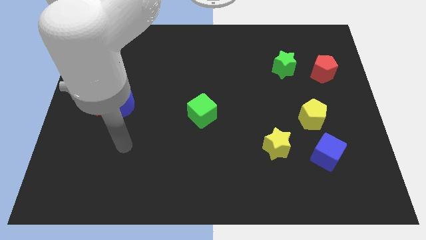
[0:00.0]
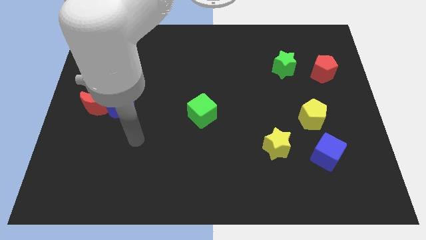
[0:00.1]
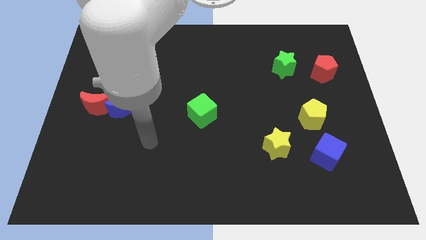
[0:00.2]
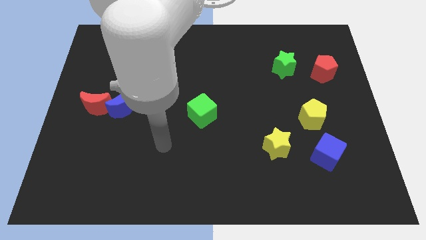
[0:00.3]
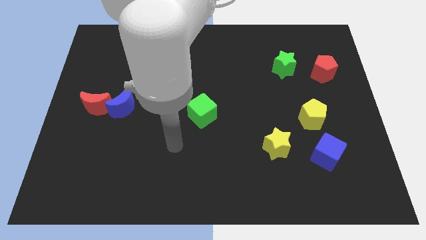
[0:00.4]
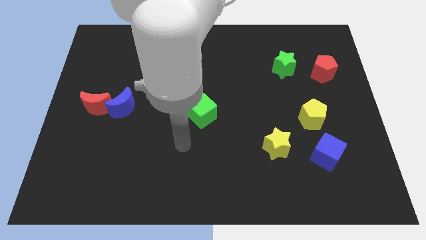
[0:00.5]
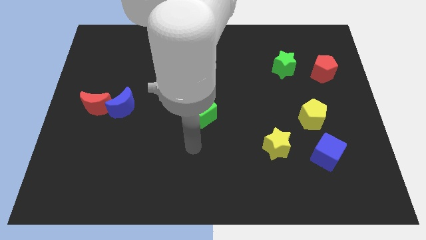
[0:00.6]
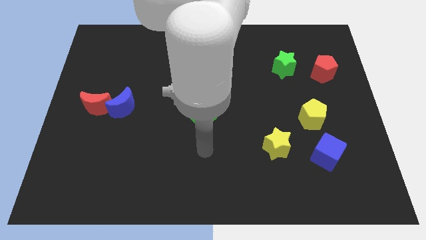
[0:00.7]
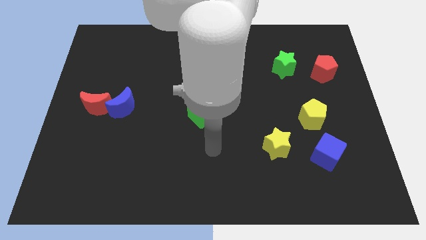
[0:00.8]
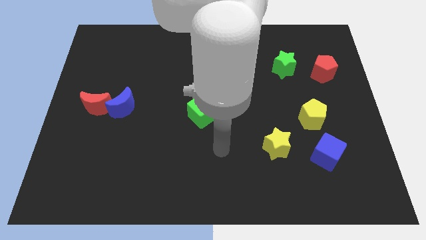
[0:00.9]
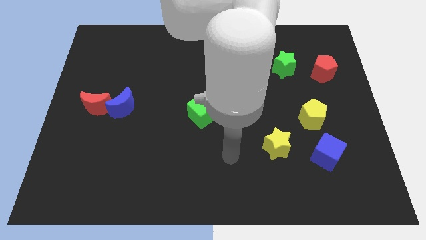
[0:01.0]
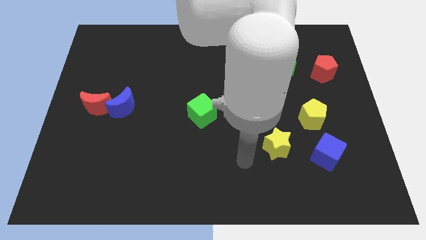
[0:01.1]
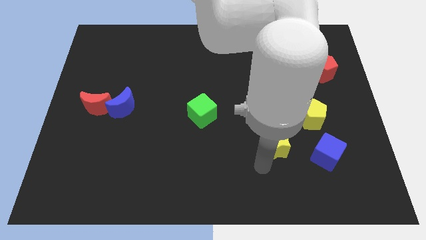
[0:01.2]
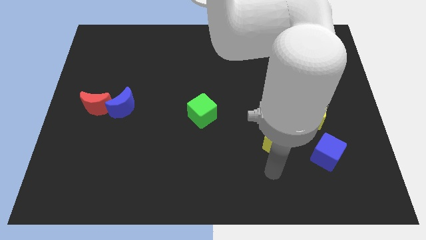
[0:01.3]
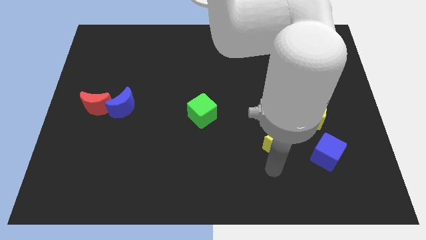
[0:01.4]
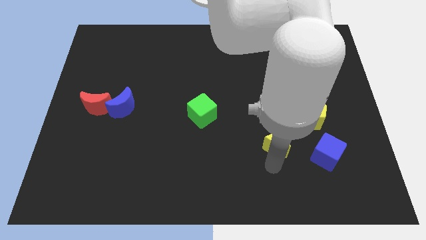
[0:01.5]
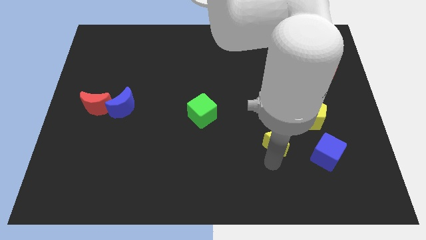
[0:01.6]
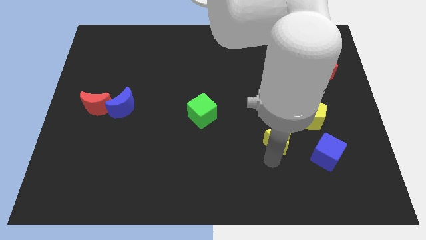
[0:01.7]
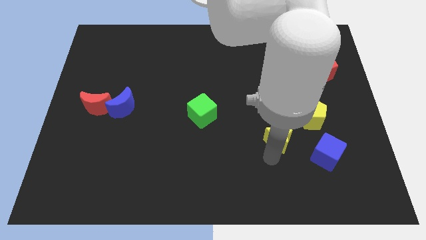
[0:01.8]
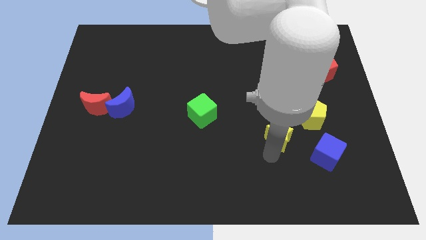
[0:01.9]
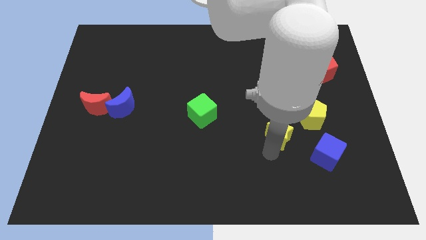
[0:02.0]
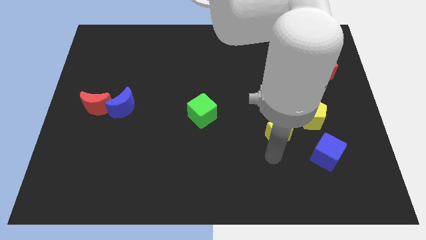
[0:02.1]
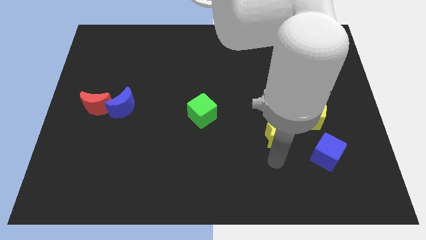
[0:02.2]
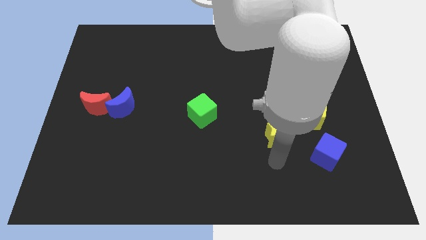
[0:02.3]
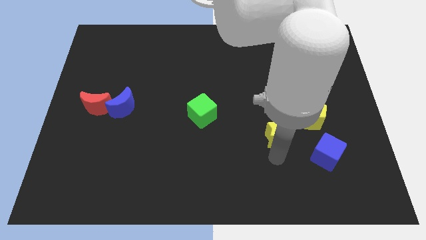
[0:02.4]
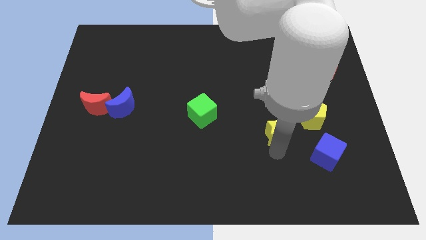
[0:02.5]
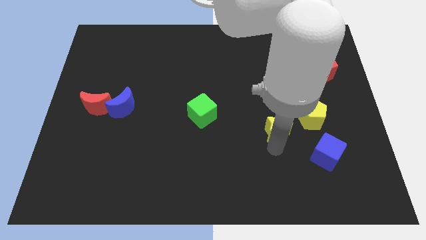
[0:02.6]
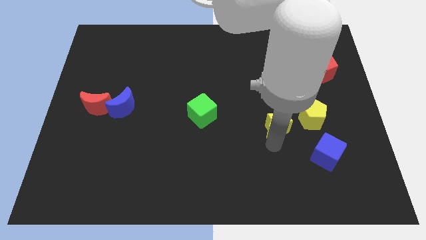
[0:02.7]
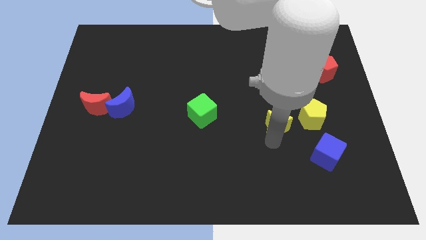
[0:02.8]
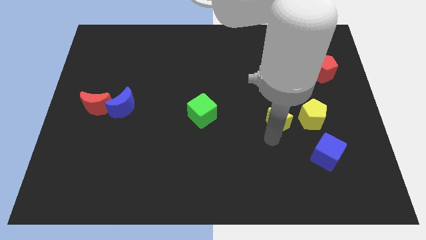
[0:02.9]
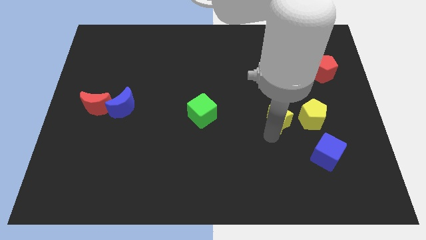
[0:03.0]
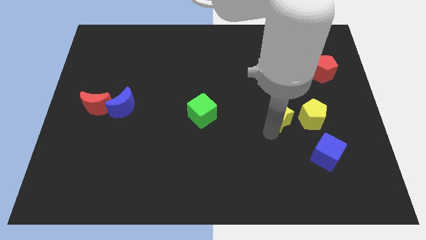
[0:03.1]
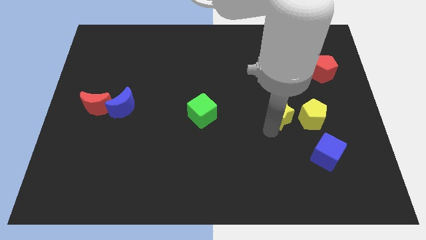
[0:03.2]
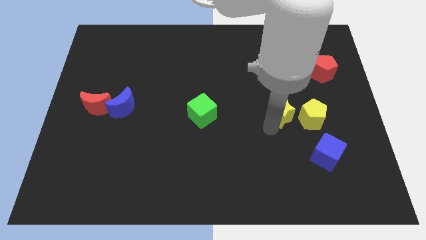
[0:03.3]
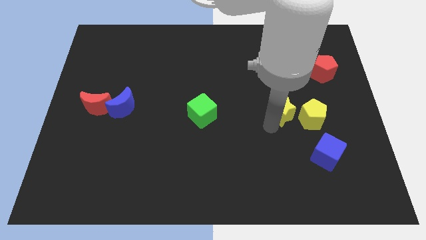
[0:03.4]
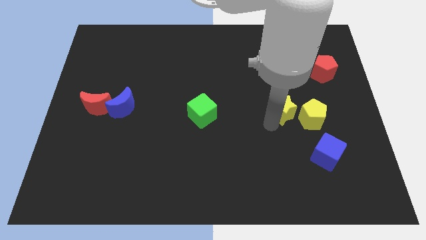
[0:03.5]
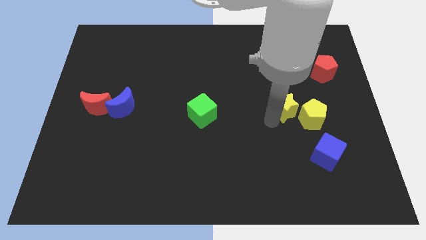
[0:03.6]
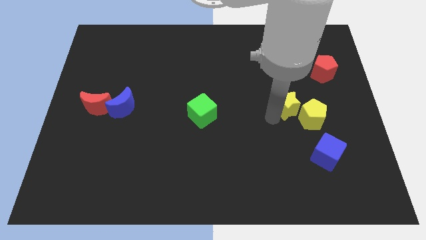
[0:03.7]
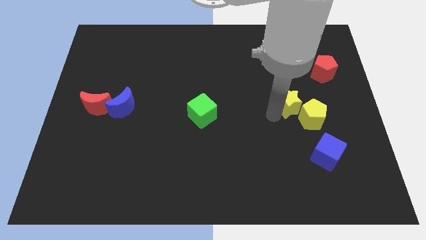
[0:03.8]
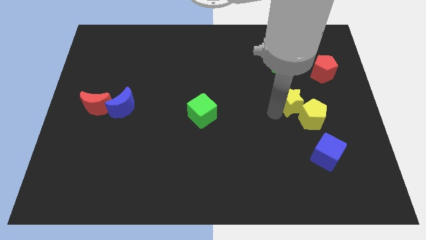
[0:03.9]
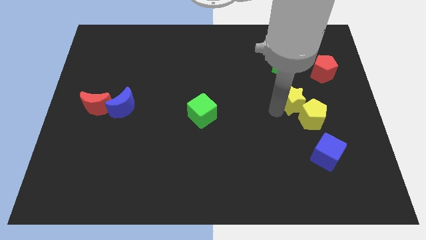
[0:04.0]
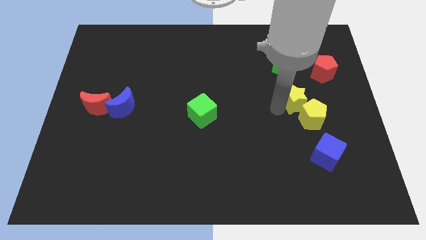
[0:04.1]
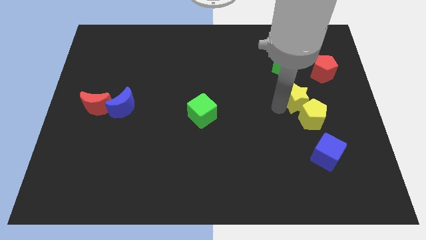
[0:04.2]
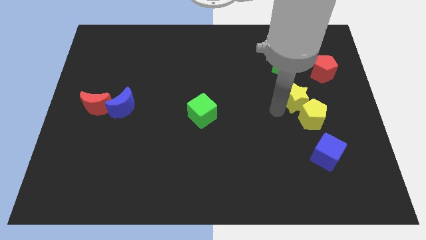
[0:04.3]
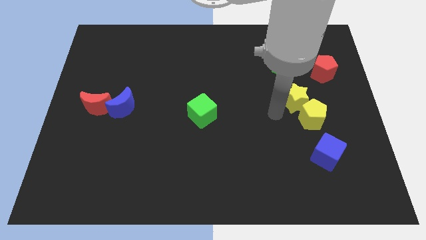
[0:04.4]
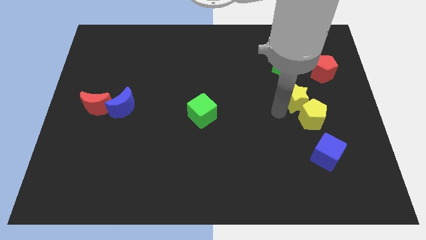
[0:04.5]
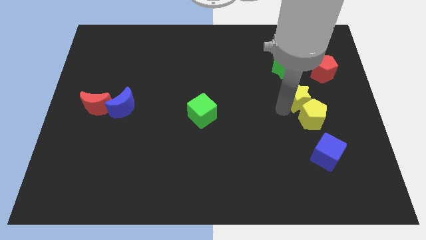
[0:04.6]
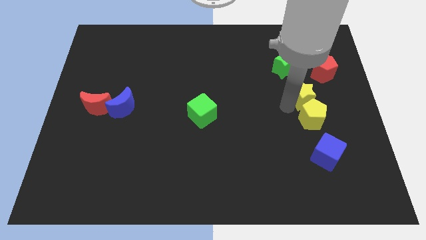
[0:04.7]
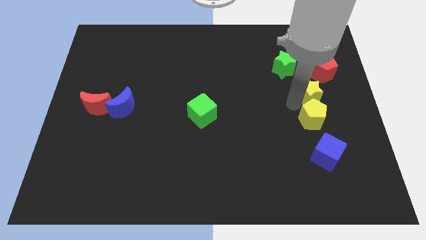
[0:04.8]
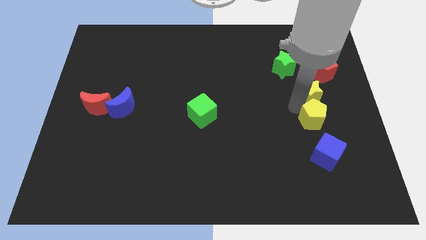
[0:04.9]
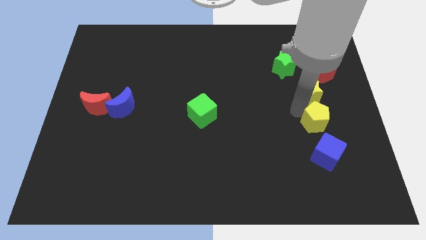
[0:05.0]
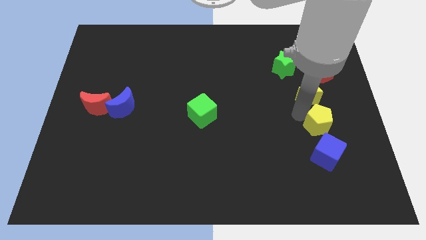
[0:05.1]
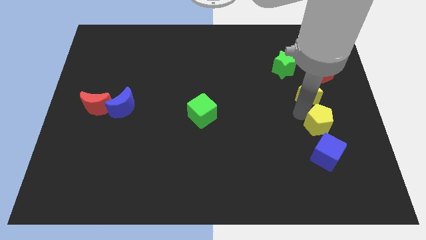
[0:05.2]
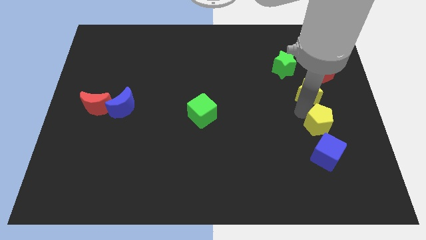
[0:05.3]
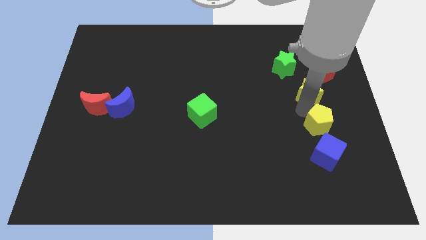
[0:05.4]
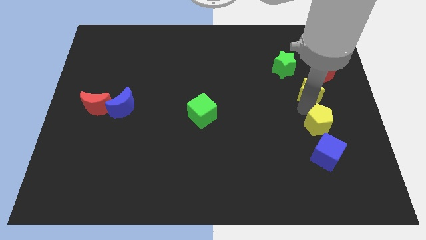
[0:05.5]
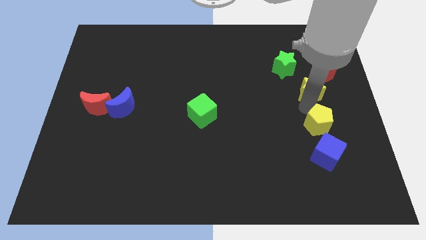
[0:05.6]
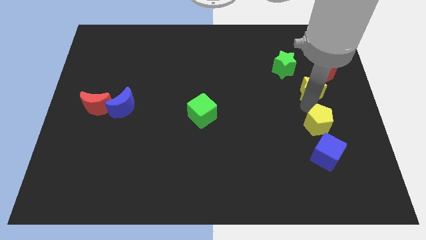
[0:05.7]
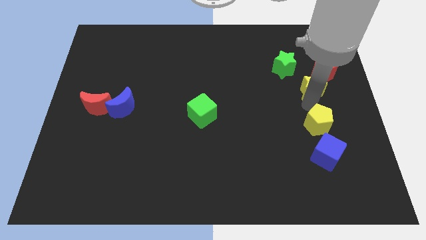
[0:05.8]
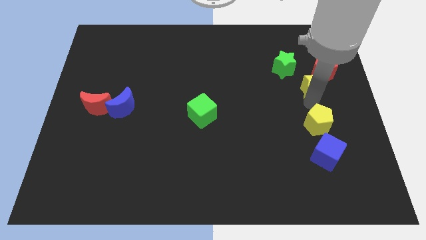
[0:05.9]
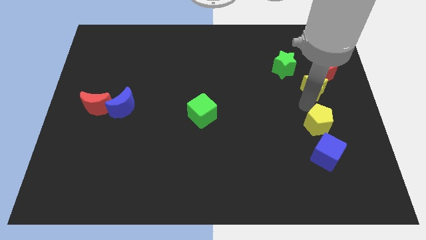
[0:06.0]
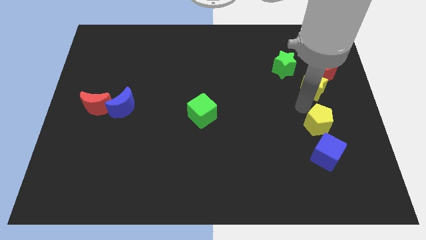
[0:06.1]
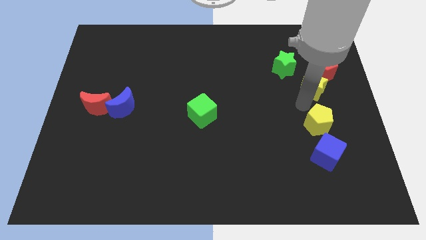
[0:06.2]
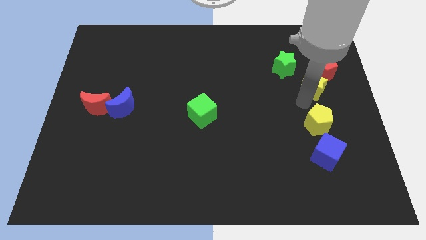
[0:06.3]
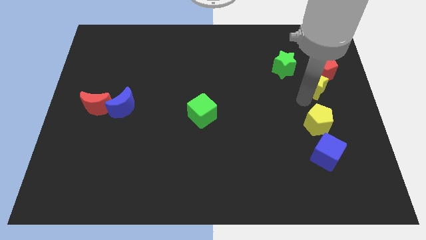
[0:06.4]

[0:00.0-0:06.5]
move the yellow star next to the red pentagon

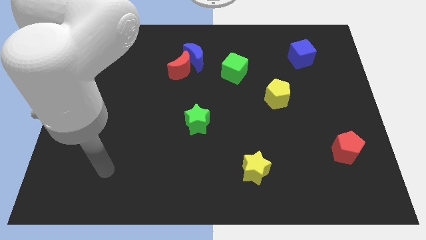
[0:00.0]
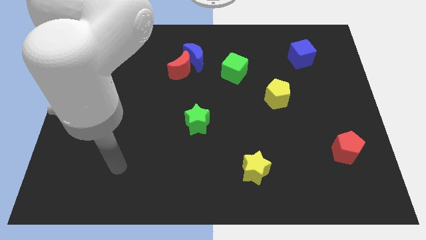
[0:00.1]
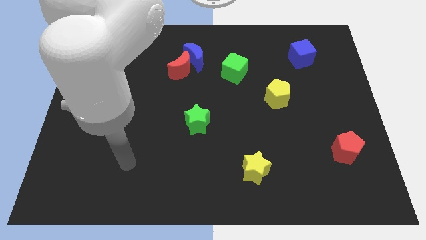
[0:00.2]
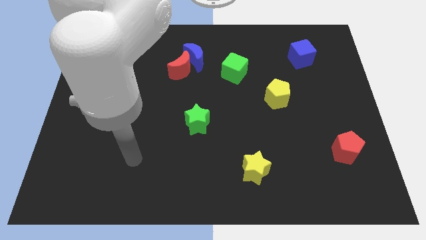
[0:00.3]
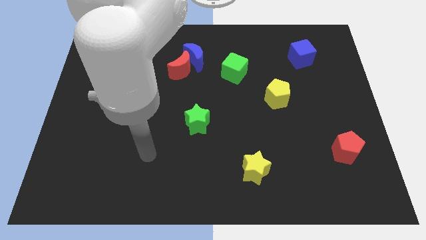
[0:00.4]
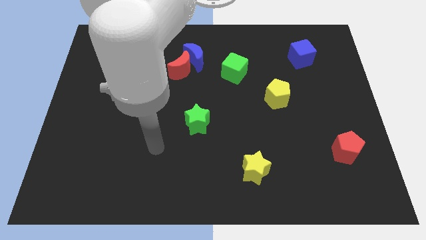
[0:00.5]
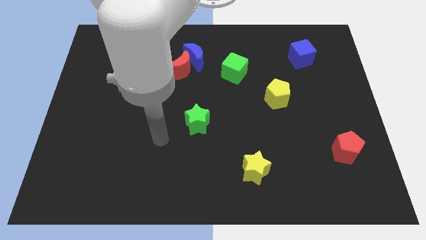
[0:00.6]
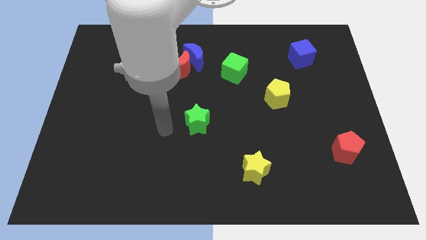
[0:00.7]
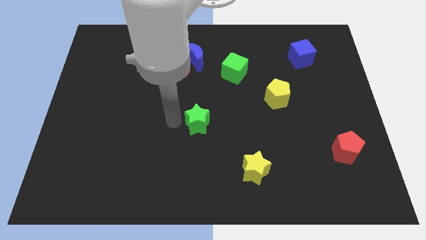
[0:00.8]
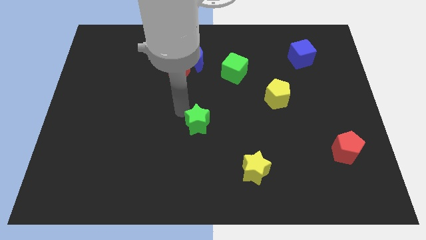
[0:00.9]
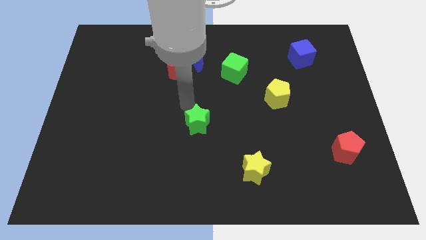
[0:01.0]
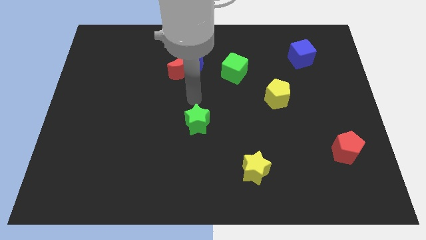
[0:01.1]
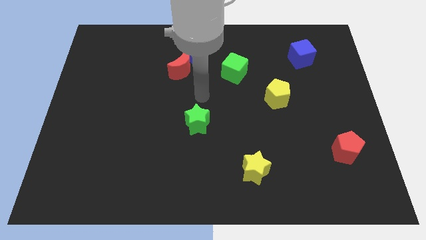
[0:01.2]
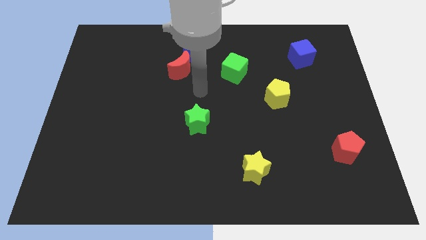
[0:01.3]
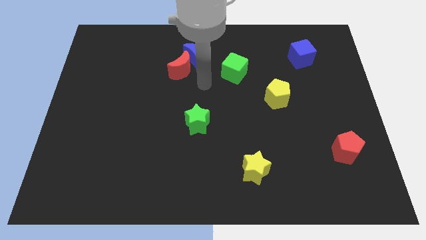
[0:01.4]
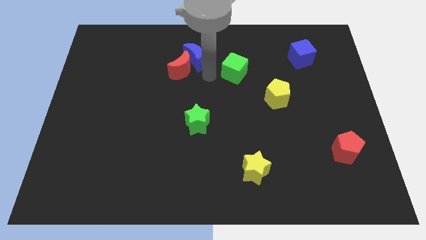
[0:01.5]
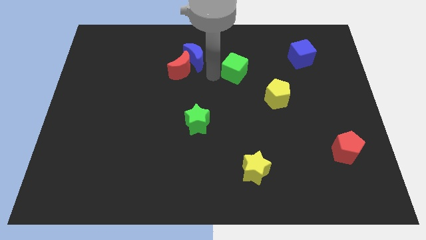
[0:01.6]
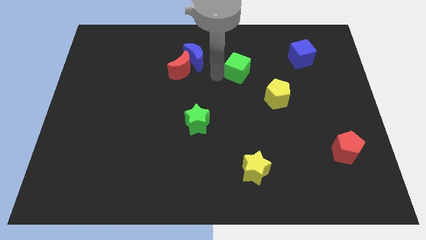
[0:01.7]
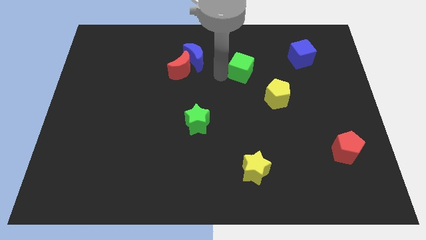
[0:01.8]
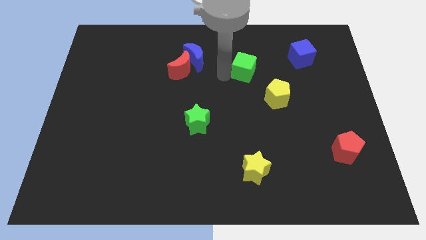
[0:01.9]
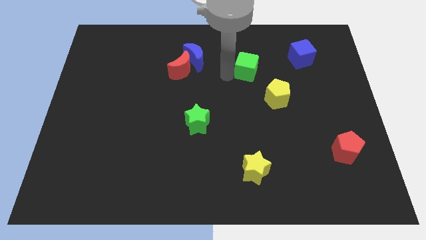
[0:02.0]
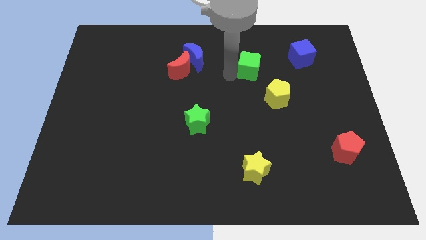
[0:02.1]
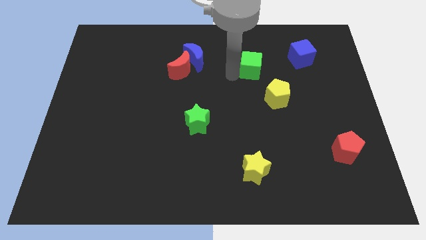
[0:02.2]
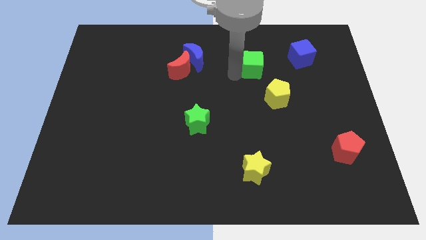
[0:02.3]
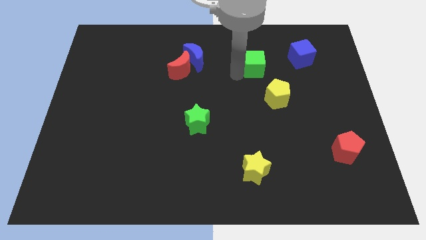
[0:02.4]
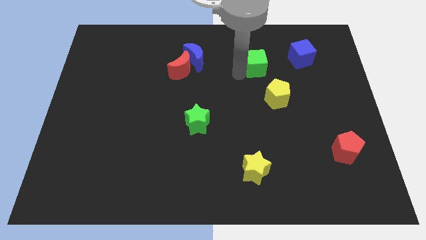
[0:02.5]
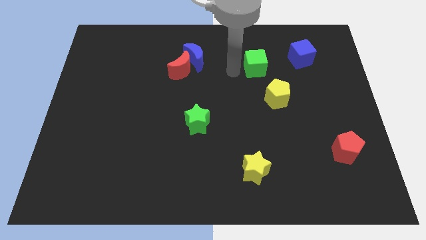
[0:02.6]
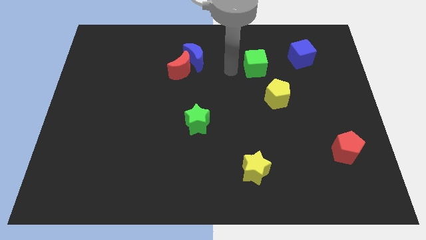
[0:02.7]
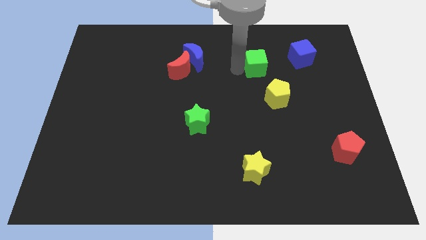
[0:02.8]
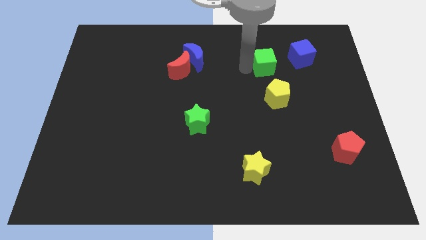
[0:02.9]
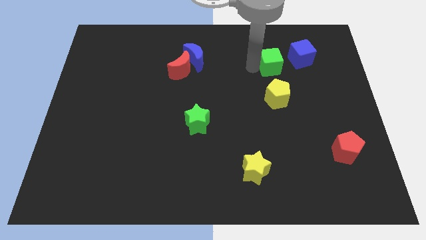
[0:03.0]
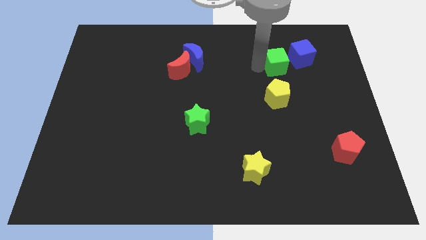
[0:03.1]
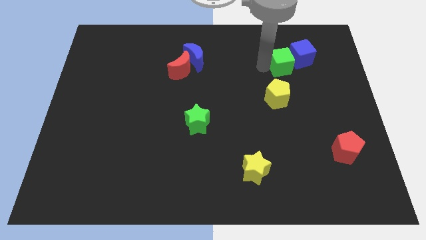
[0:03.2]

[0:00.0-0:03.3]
slide the green cube next to the blue cube
